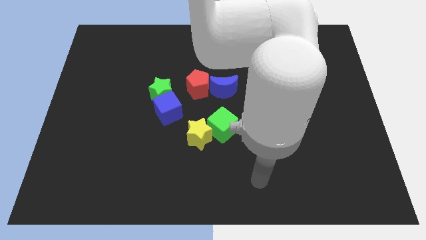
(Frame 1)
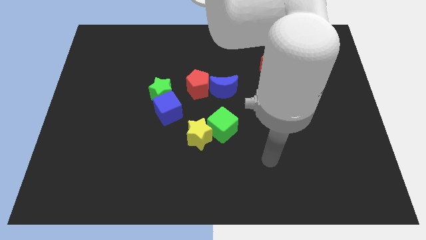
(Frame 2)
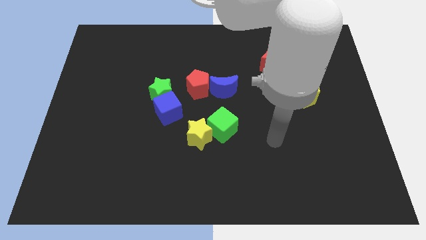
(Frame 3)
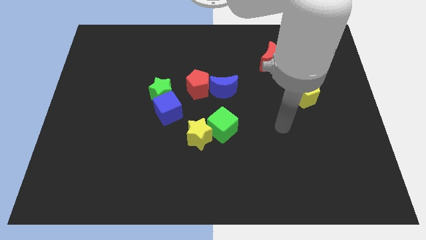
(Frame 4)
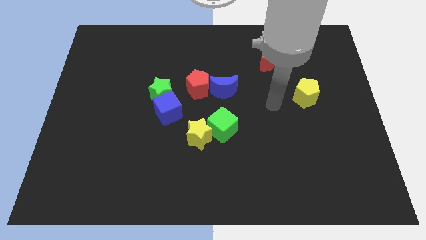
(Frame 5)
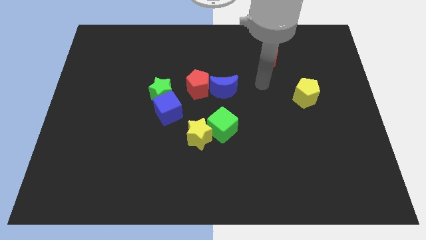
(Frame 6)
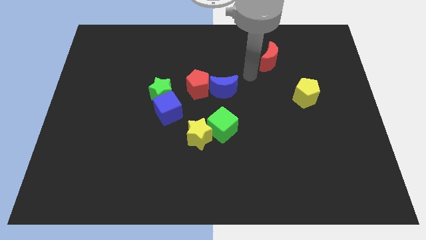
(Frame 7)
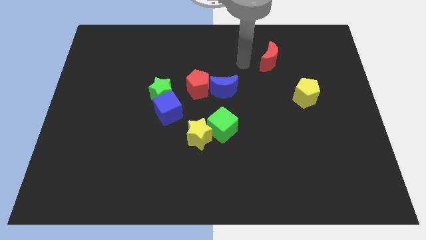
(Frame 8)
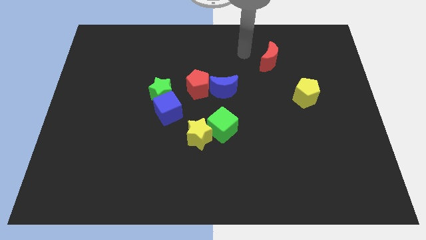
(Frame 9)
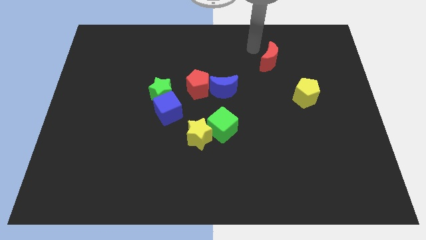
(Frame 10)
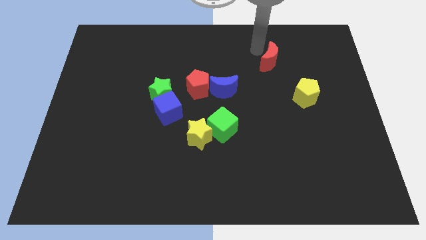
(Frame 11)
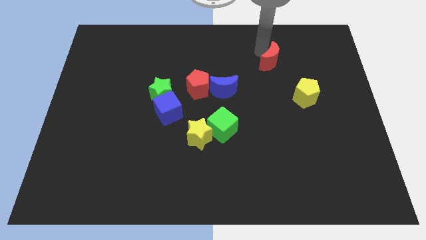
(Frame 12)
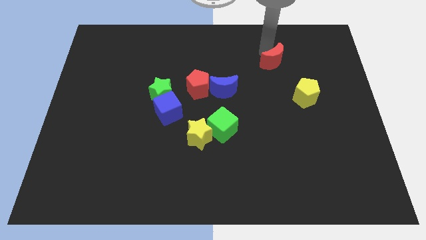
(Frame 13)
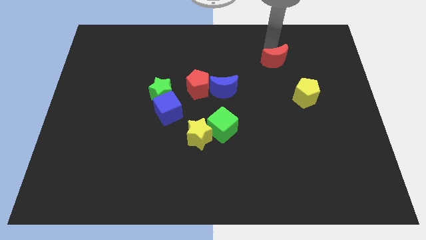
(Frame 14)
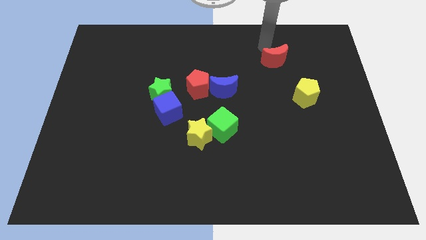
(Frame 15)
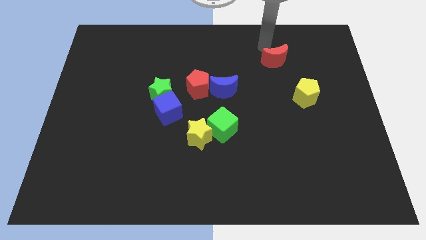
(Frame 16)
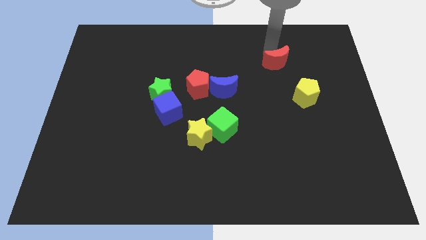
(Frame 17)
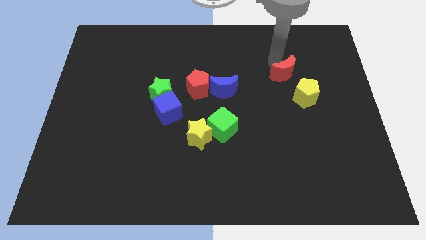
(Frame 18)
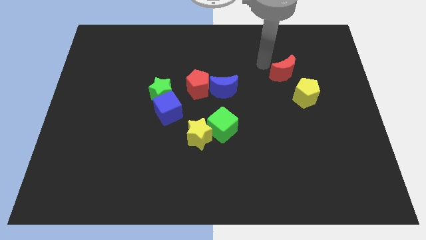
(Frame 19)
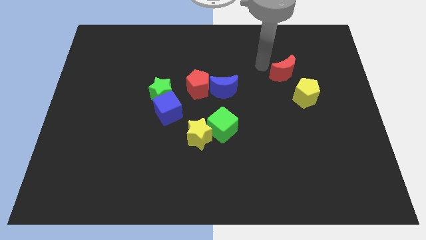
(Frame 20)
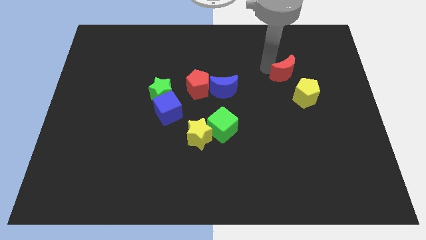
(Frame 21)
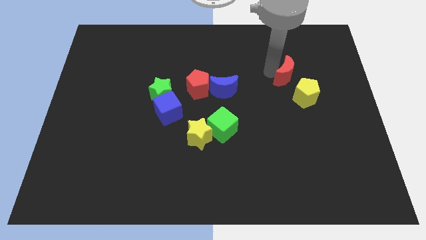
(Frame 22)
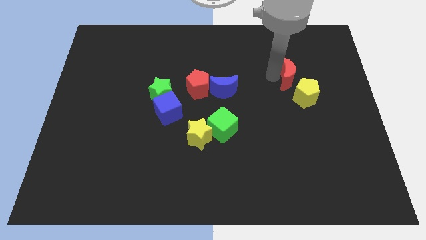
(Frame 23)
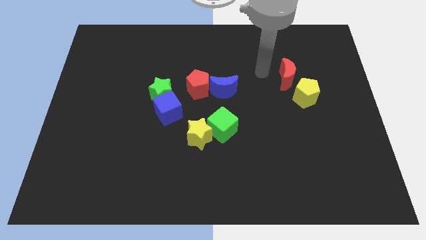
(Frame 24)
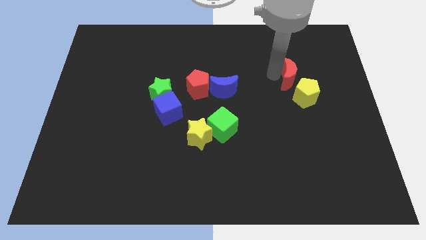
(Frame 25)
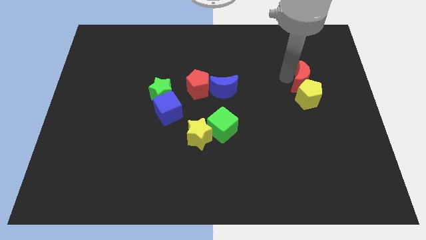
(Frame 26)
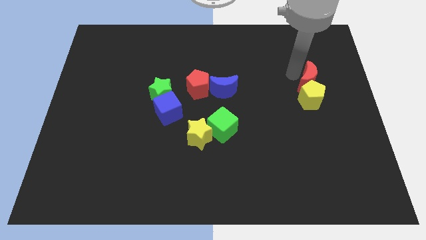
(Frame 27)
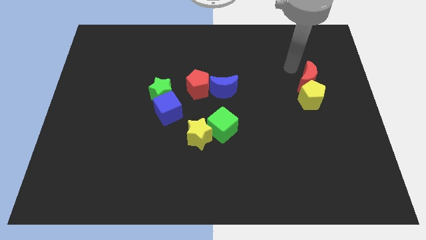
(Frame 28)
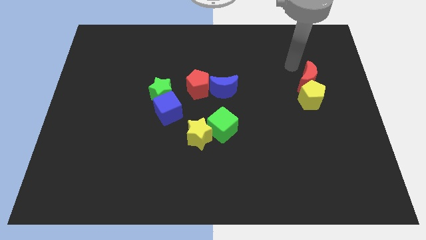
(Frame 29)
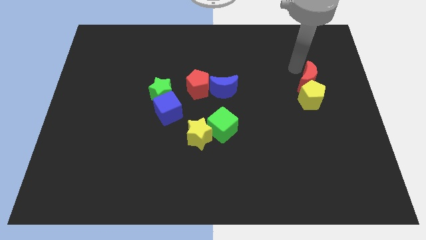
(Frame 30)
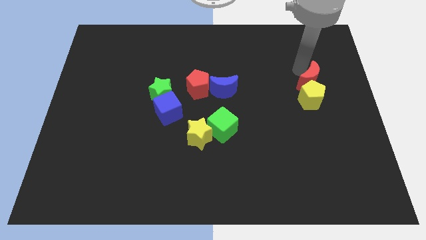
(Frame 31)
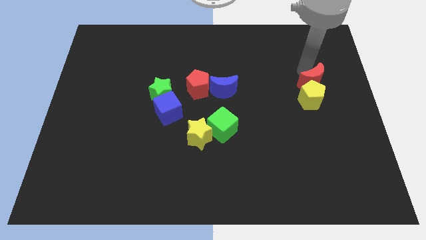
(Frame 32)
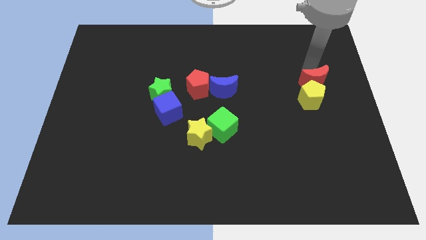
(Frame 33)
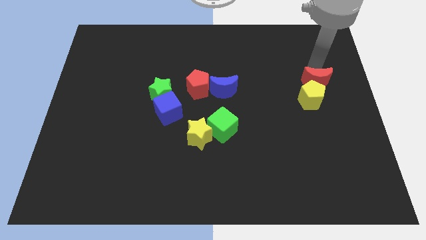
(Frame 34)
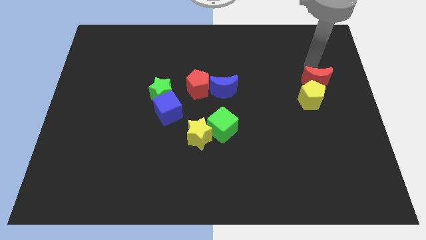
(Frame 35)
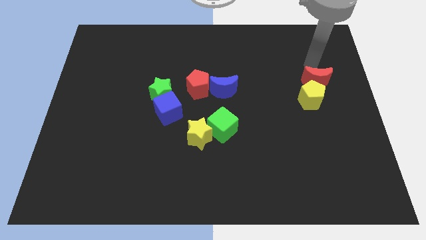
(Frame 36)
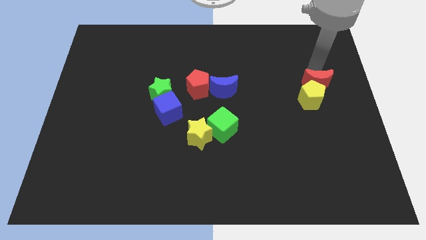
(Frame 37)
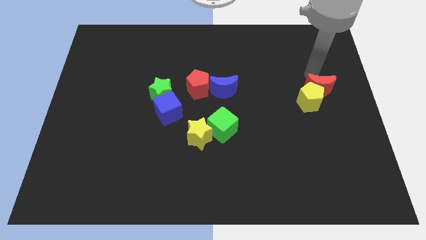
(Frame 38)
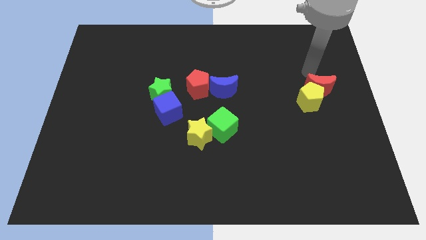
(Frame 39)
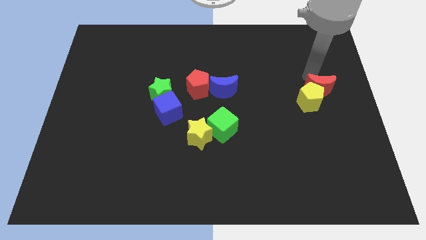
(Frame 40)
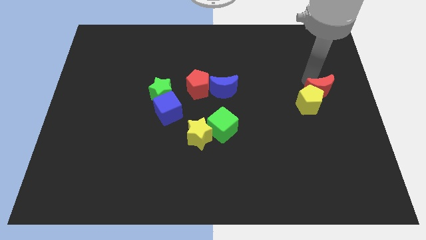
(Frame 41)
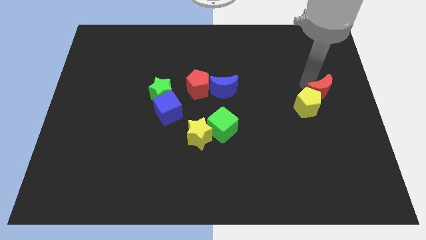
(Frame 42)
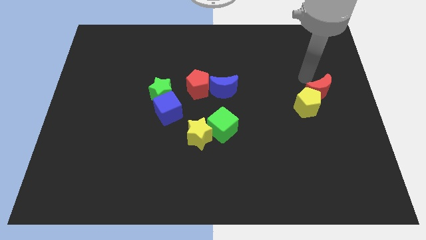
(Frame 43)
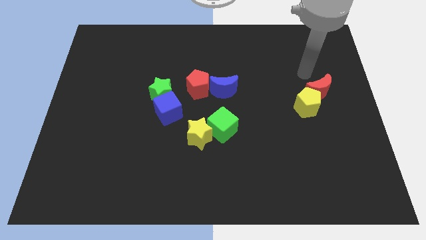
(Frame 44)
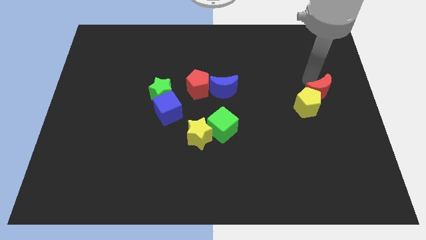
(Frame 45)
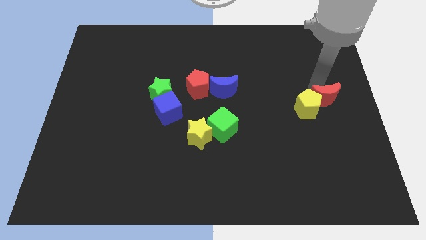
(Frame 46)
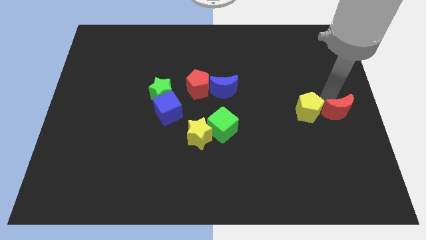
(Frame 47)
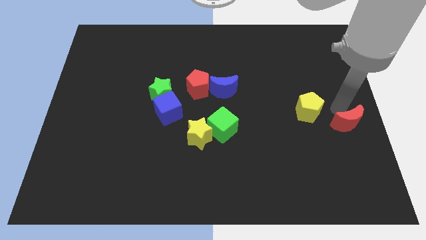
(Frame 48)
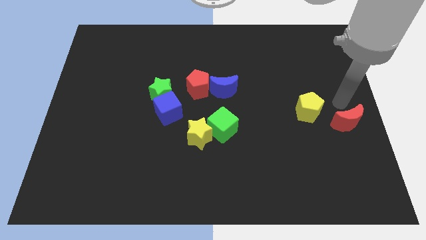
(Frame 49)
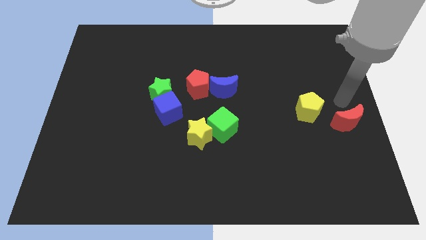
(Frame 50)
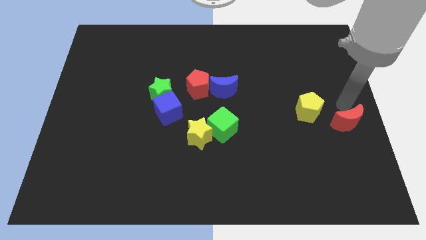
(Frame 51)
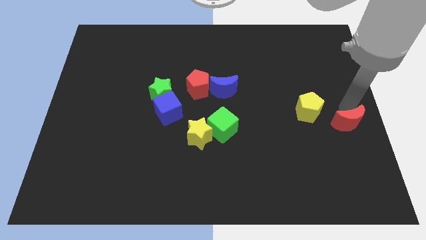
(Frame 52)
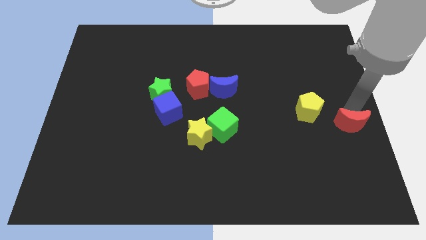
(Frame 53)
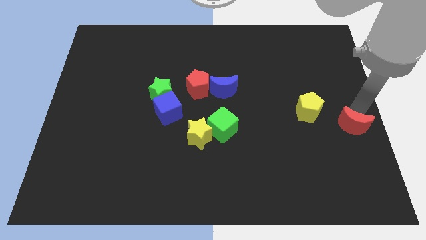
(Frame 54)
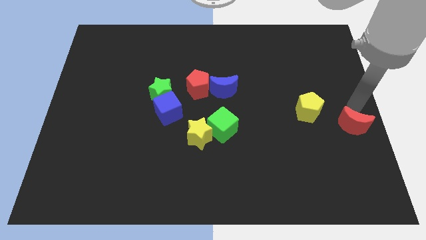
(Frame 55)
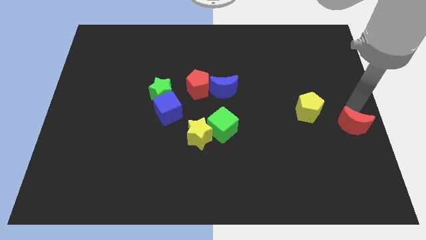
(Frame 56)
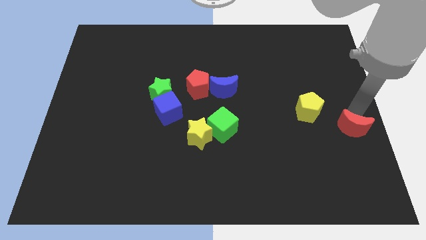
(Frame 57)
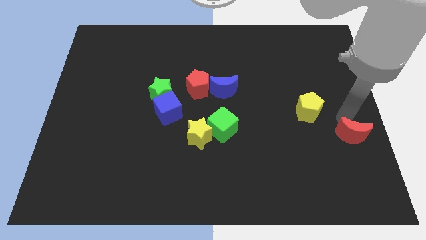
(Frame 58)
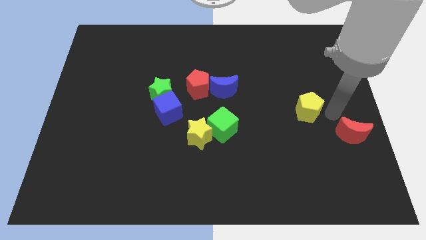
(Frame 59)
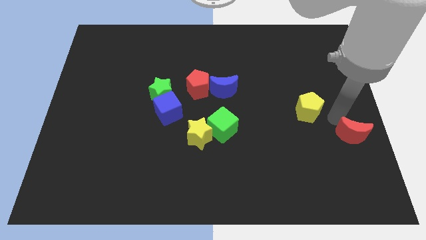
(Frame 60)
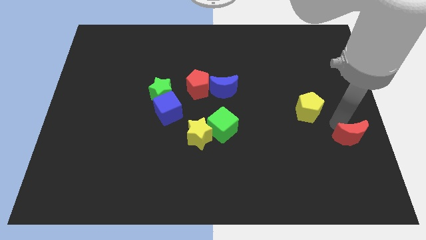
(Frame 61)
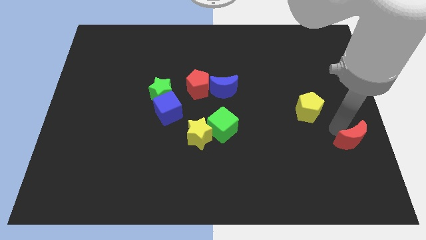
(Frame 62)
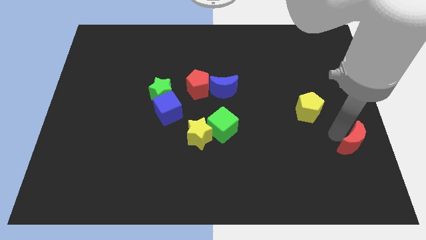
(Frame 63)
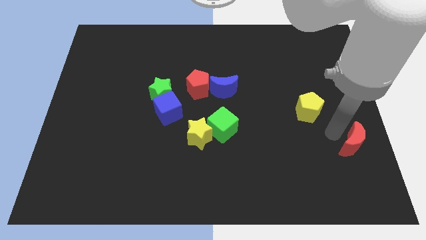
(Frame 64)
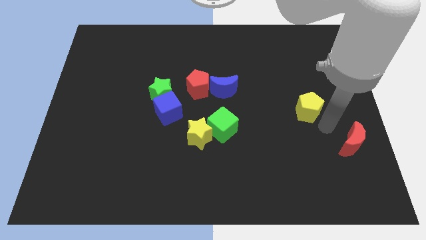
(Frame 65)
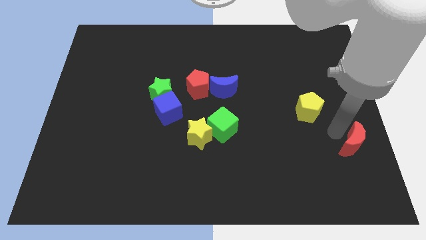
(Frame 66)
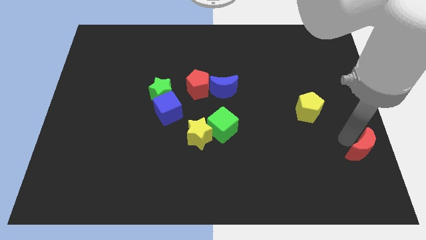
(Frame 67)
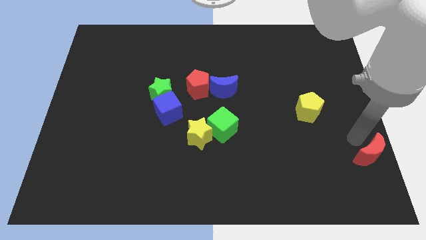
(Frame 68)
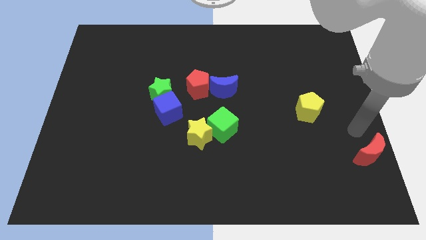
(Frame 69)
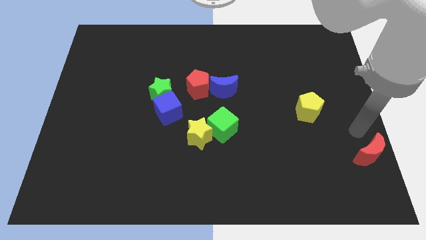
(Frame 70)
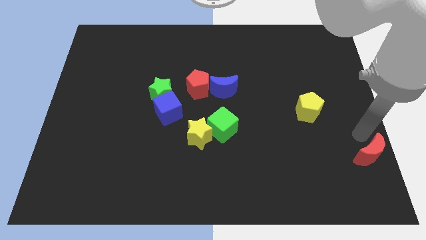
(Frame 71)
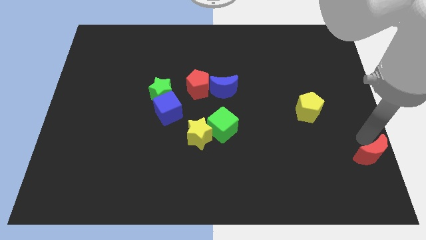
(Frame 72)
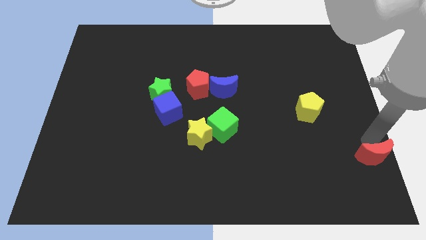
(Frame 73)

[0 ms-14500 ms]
push the red moon to the bottom right
